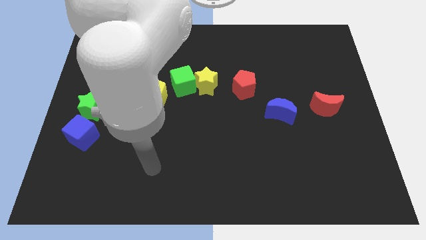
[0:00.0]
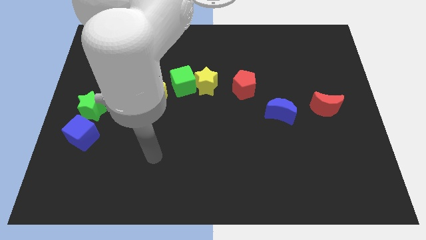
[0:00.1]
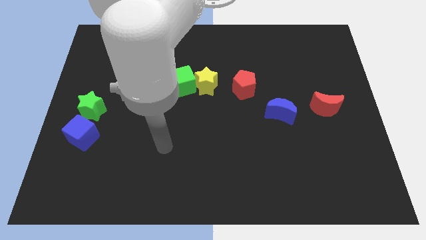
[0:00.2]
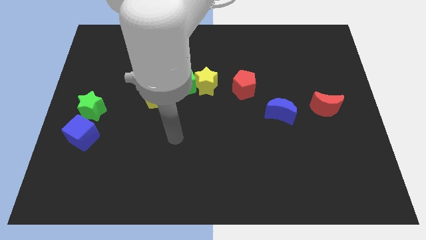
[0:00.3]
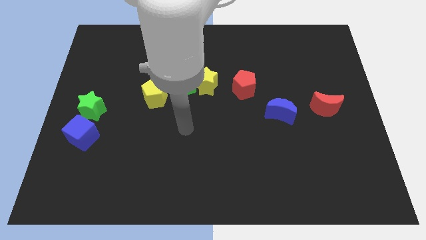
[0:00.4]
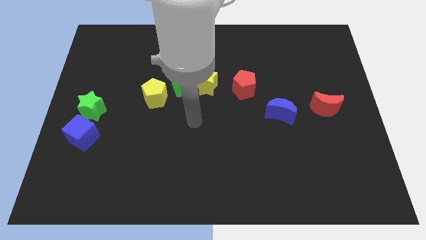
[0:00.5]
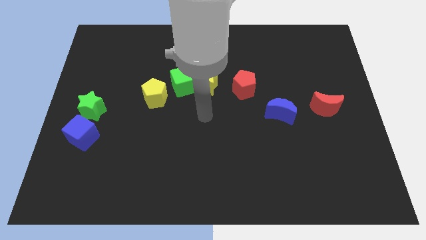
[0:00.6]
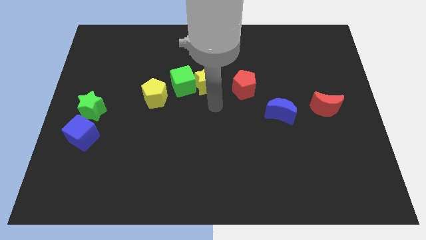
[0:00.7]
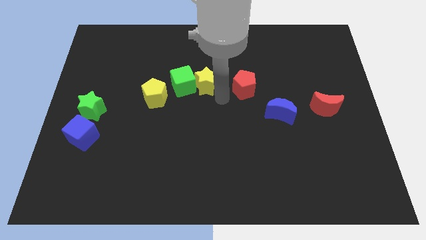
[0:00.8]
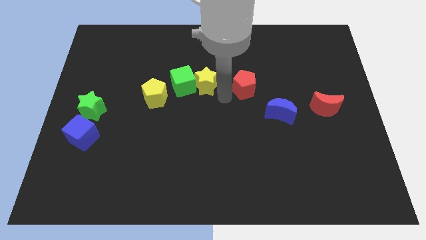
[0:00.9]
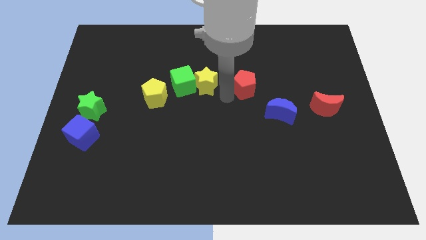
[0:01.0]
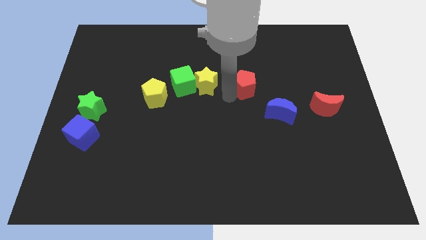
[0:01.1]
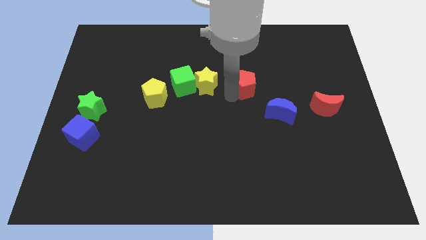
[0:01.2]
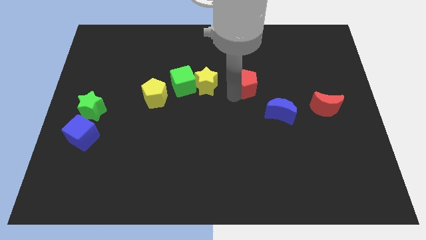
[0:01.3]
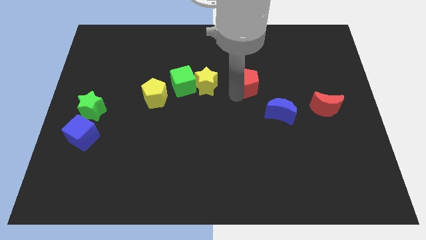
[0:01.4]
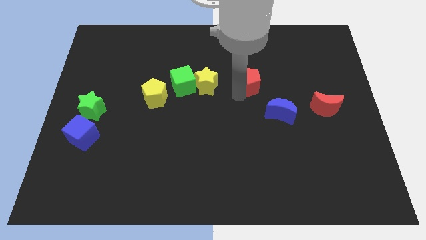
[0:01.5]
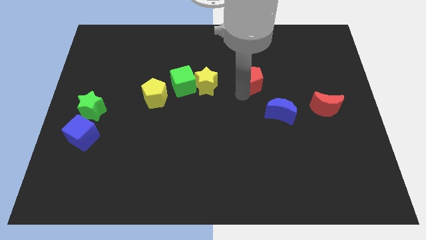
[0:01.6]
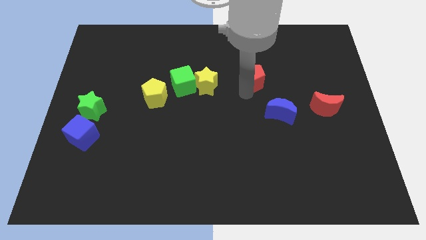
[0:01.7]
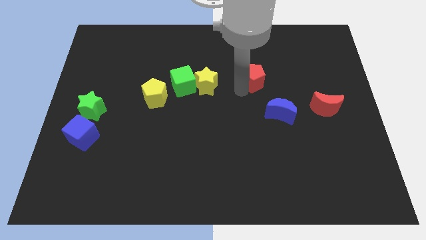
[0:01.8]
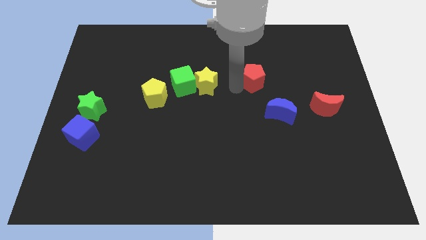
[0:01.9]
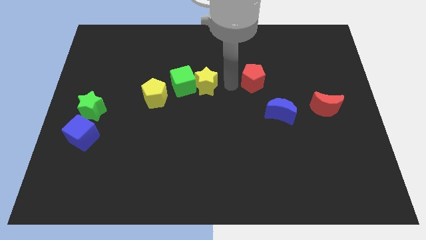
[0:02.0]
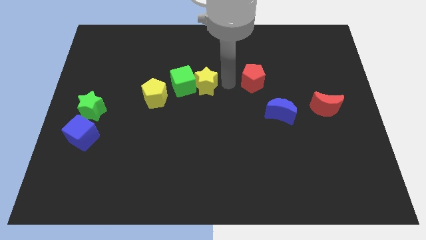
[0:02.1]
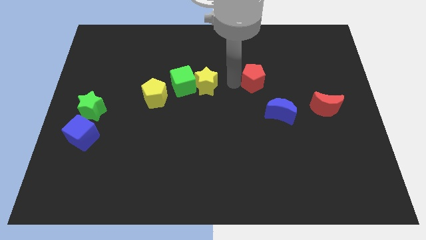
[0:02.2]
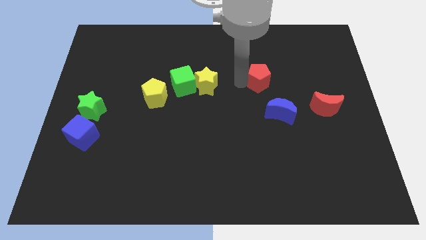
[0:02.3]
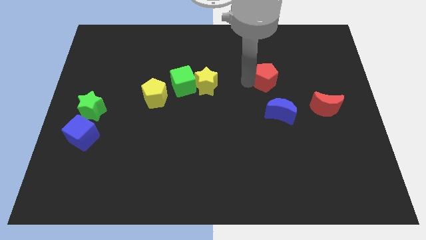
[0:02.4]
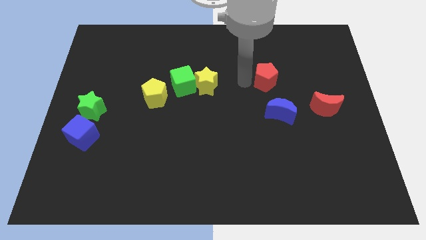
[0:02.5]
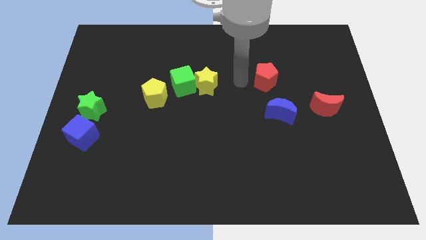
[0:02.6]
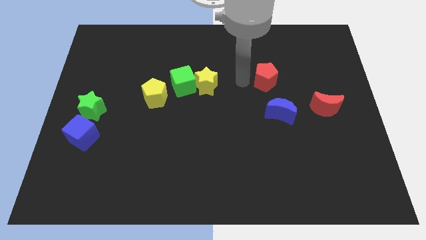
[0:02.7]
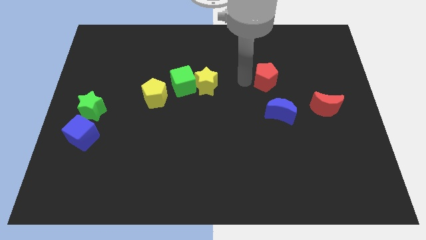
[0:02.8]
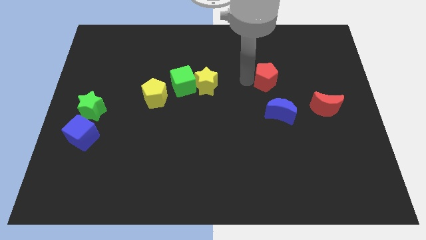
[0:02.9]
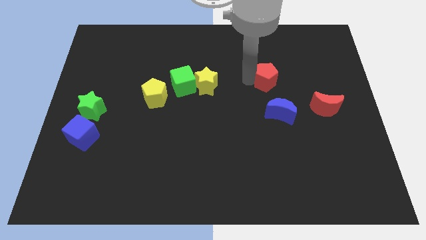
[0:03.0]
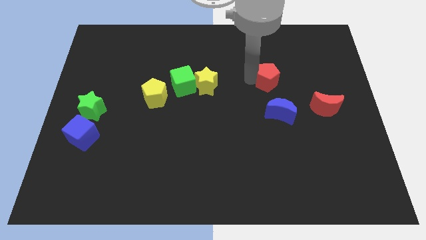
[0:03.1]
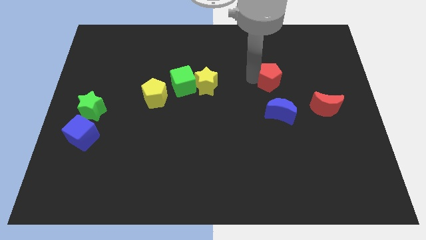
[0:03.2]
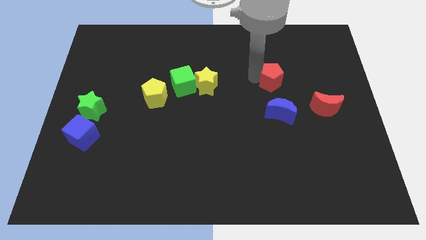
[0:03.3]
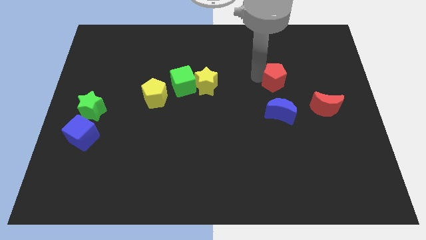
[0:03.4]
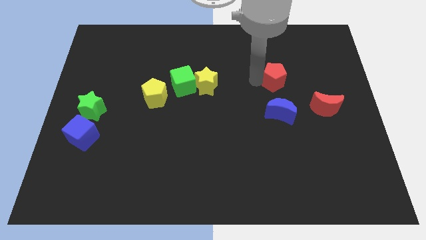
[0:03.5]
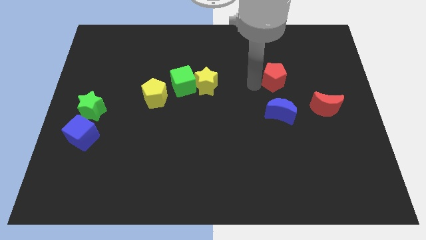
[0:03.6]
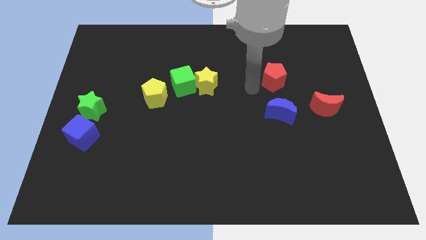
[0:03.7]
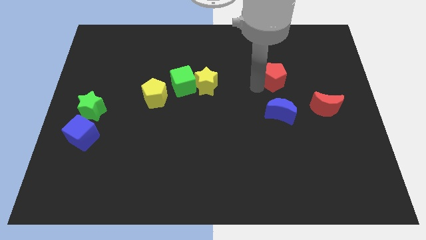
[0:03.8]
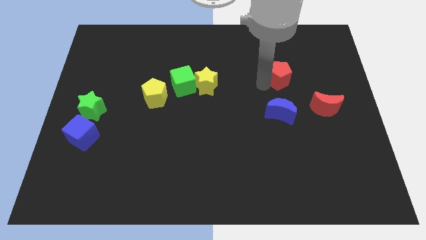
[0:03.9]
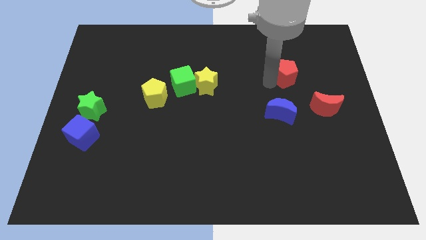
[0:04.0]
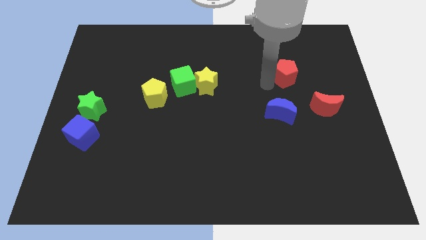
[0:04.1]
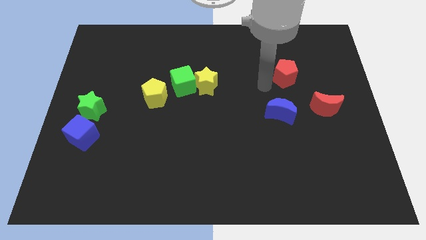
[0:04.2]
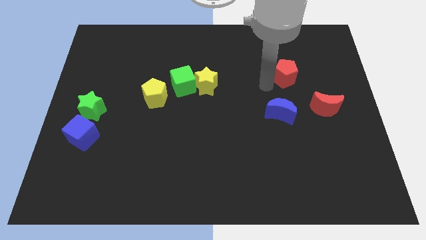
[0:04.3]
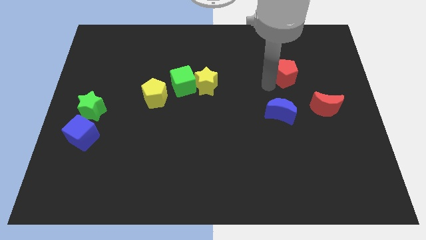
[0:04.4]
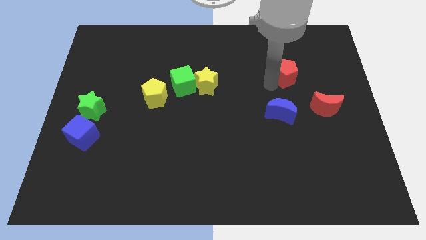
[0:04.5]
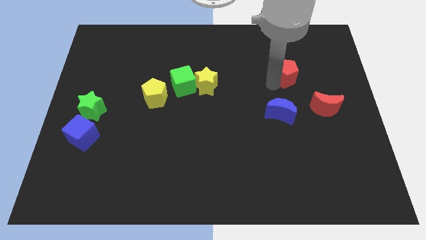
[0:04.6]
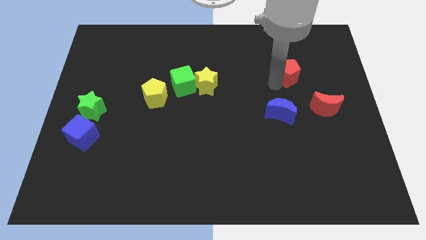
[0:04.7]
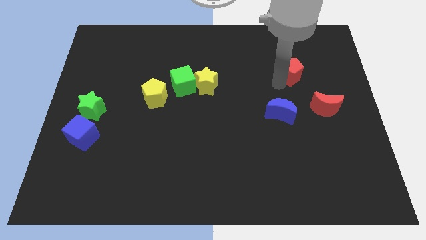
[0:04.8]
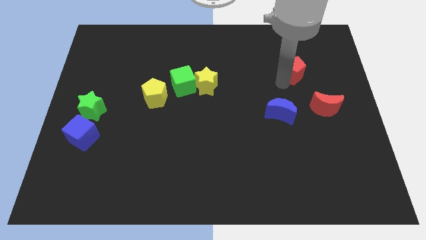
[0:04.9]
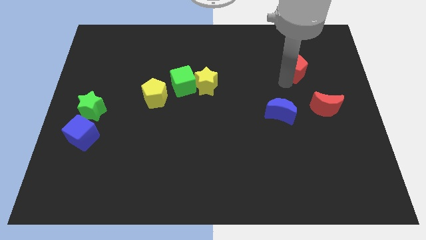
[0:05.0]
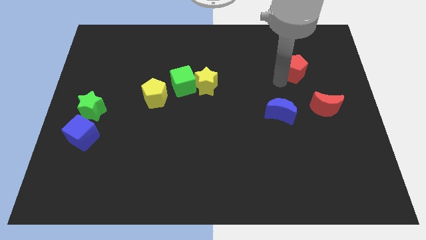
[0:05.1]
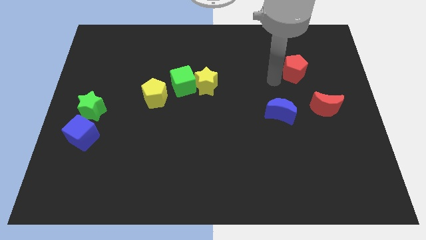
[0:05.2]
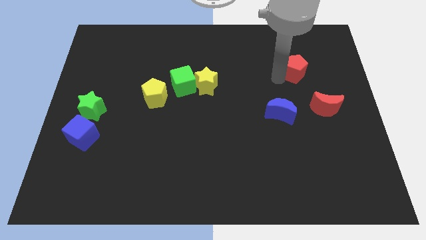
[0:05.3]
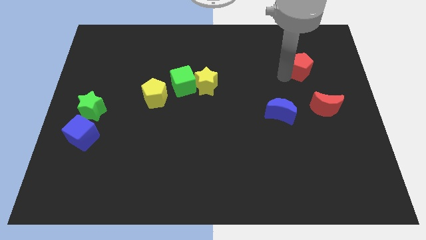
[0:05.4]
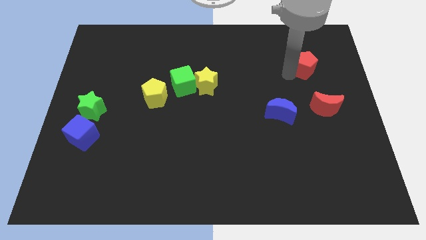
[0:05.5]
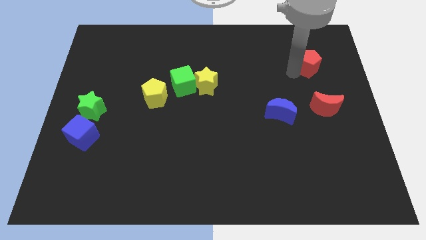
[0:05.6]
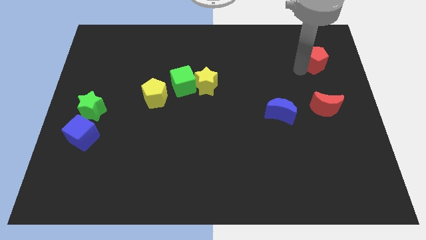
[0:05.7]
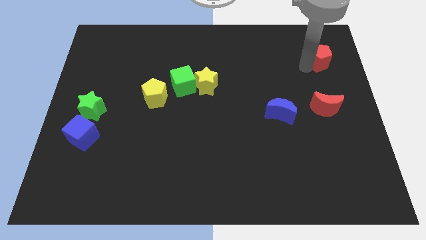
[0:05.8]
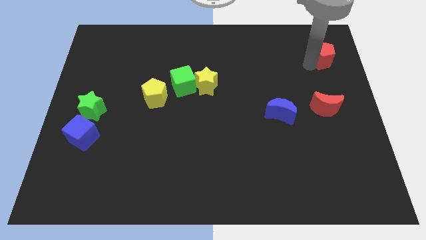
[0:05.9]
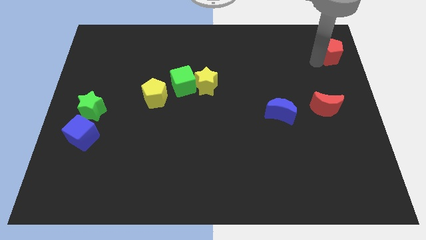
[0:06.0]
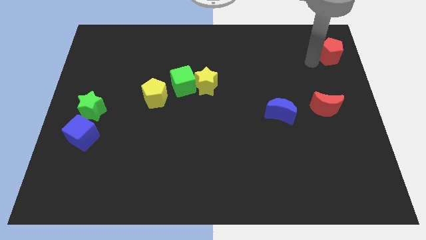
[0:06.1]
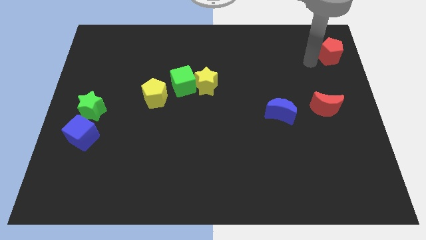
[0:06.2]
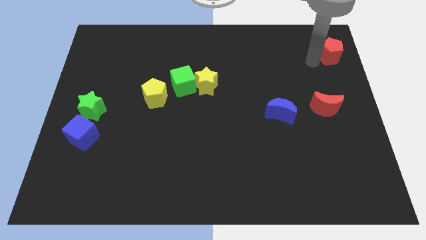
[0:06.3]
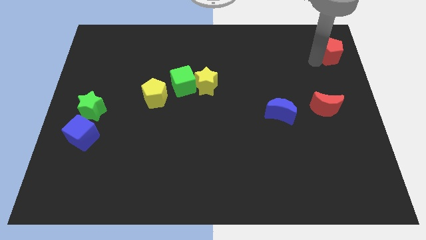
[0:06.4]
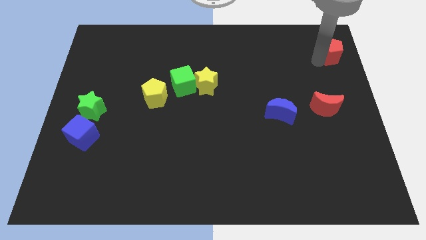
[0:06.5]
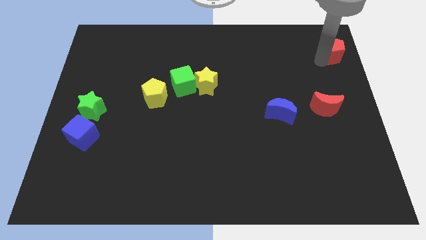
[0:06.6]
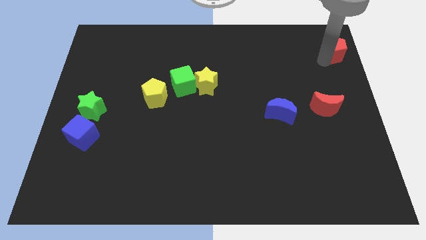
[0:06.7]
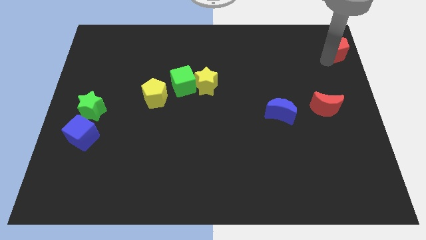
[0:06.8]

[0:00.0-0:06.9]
put the red pentagon to the upper right corner
